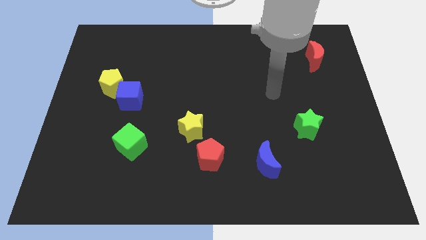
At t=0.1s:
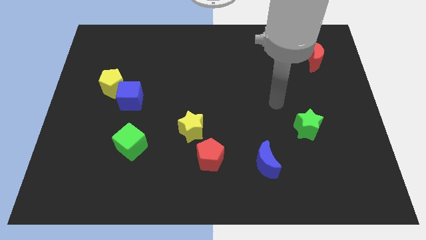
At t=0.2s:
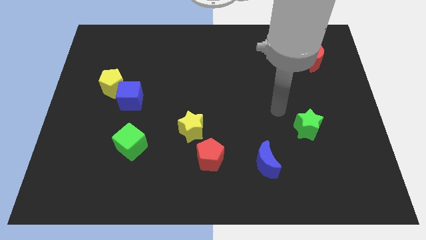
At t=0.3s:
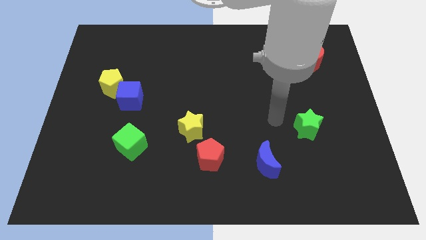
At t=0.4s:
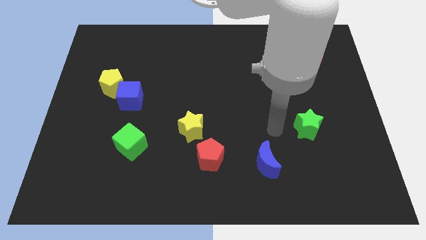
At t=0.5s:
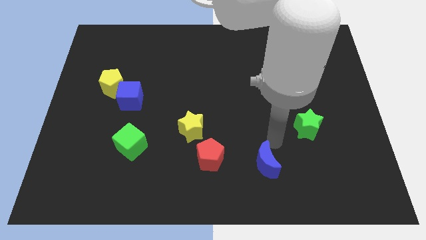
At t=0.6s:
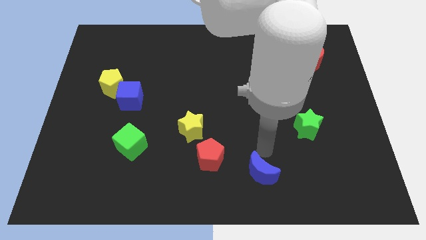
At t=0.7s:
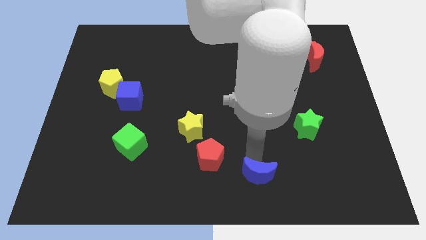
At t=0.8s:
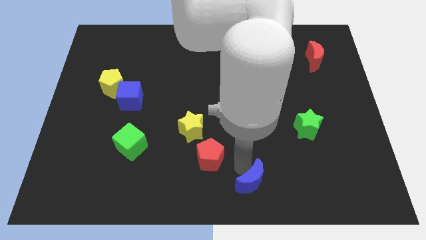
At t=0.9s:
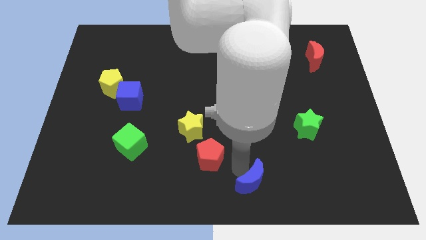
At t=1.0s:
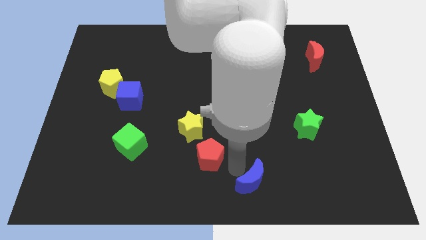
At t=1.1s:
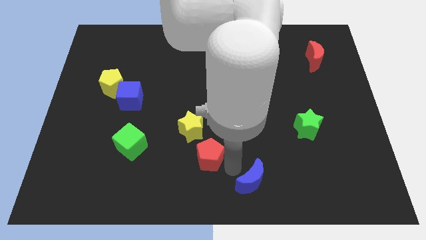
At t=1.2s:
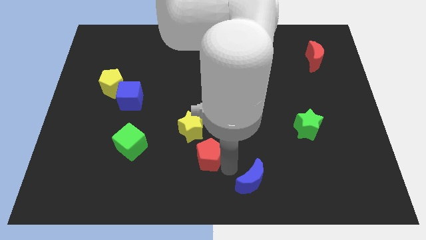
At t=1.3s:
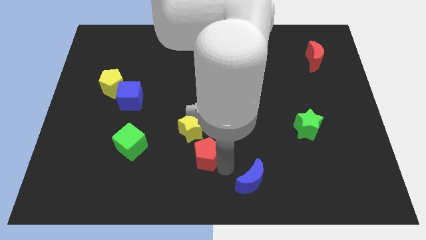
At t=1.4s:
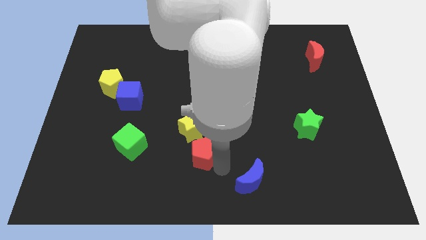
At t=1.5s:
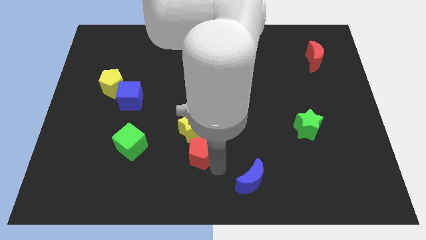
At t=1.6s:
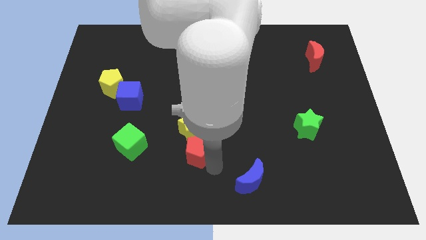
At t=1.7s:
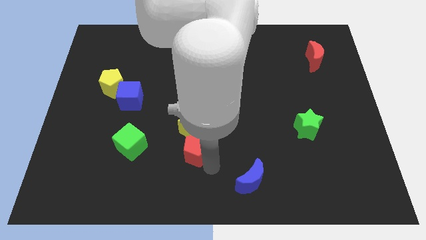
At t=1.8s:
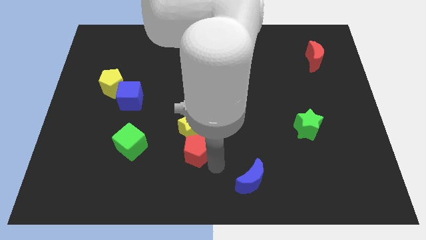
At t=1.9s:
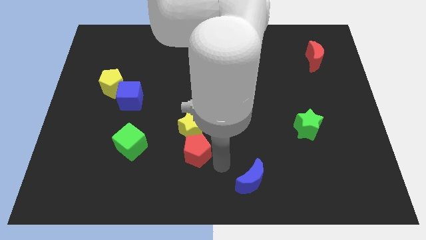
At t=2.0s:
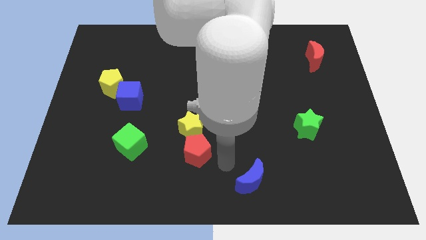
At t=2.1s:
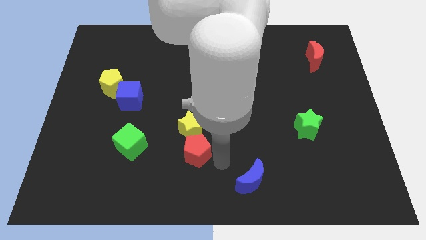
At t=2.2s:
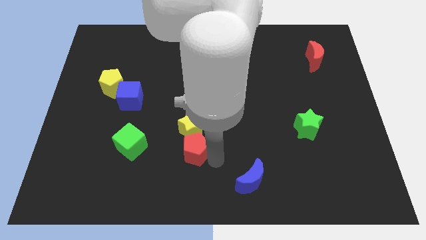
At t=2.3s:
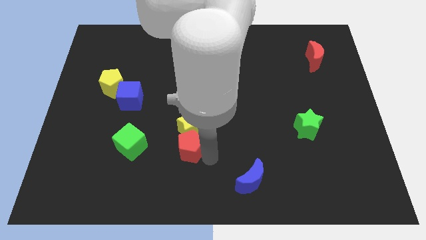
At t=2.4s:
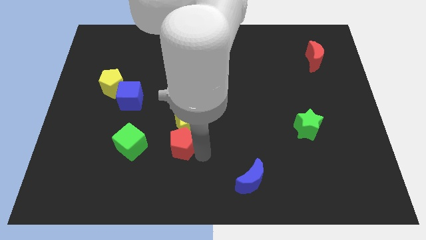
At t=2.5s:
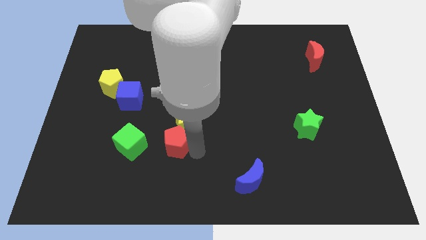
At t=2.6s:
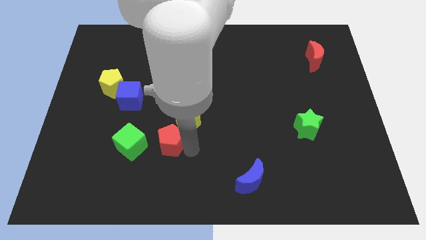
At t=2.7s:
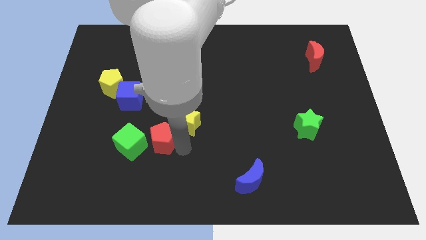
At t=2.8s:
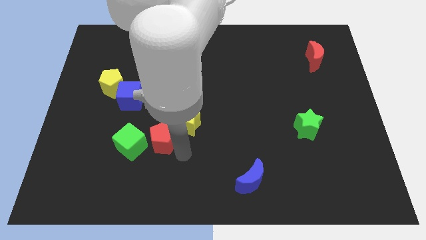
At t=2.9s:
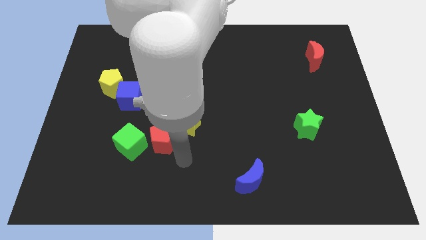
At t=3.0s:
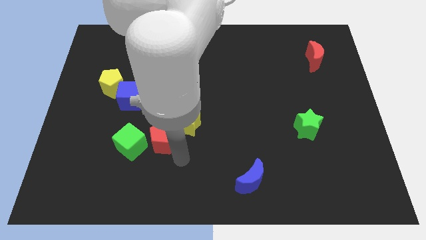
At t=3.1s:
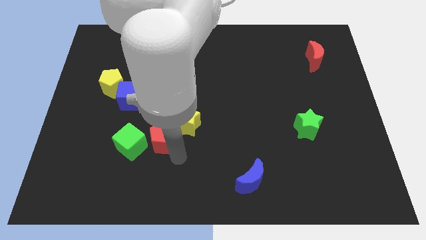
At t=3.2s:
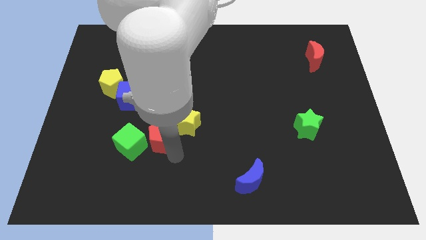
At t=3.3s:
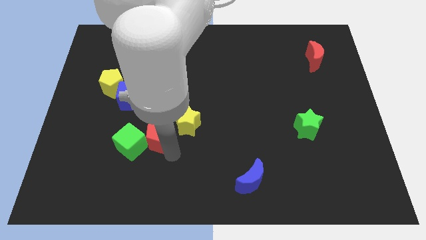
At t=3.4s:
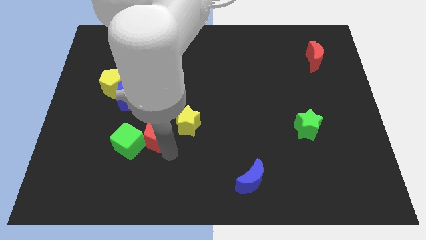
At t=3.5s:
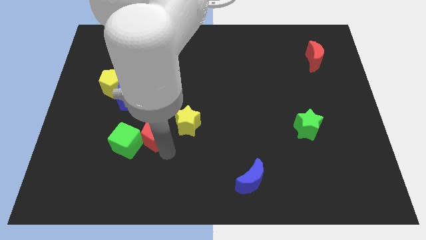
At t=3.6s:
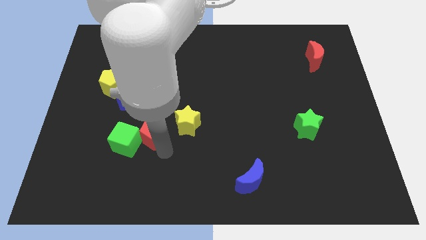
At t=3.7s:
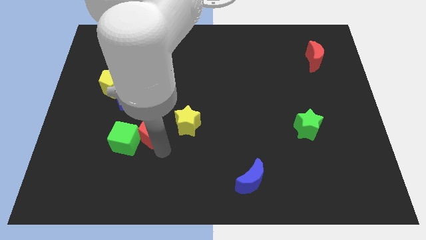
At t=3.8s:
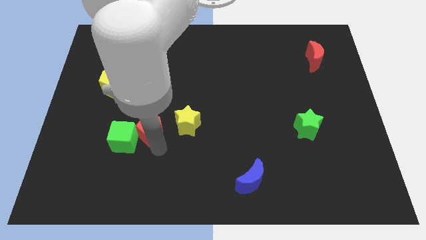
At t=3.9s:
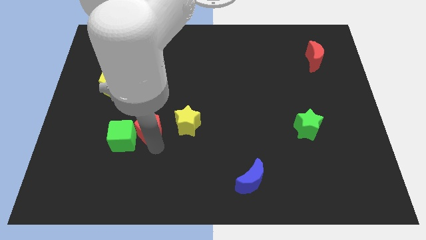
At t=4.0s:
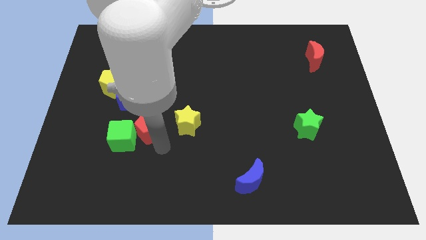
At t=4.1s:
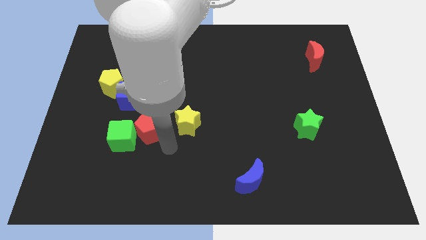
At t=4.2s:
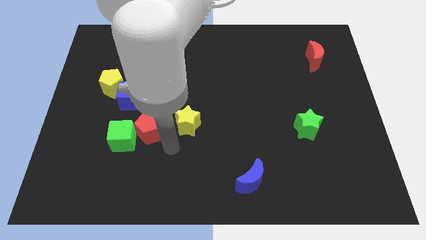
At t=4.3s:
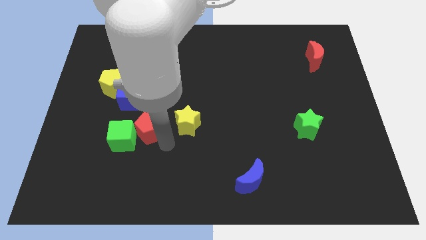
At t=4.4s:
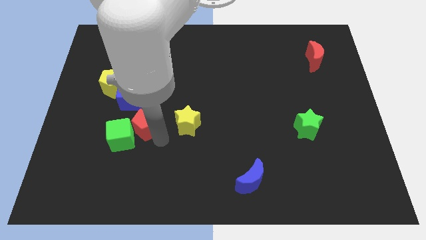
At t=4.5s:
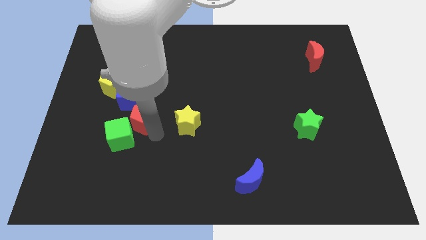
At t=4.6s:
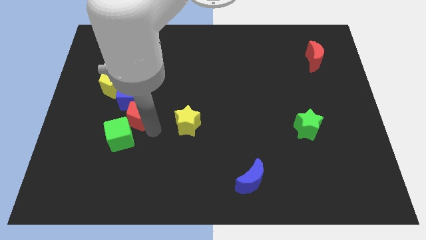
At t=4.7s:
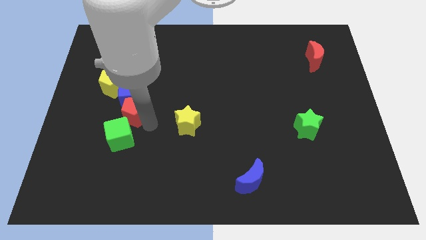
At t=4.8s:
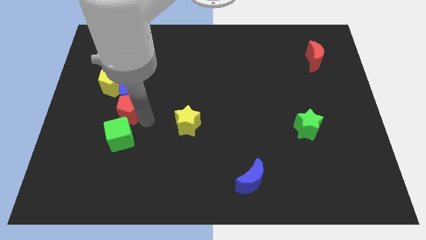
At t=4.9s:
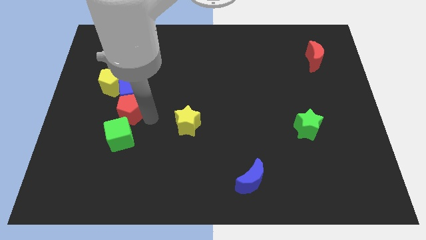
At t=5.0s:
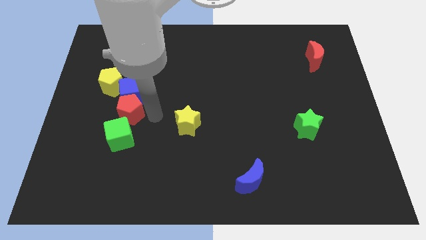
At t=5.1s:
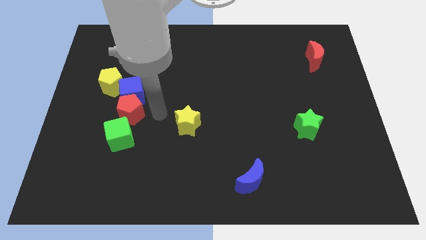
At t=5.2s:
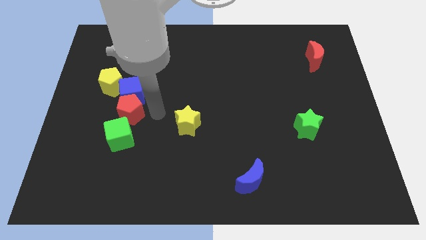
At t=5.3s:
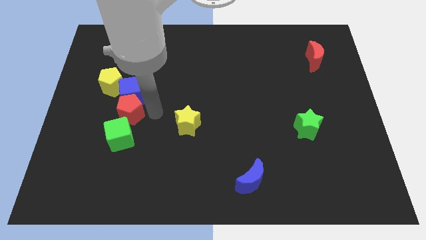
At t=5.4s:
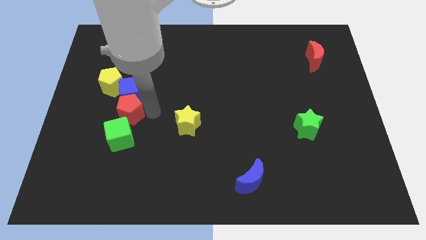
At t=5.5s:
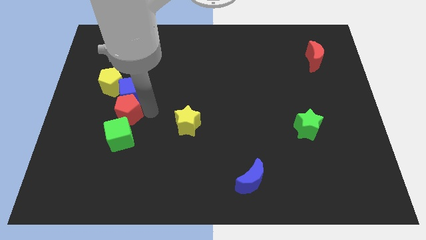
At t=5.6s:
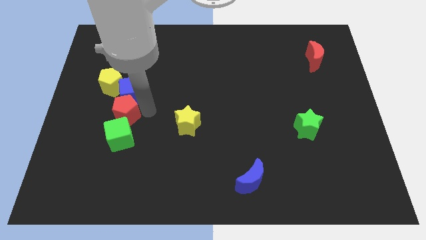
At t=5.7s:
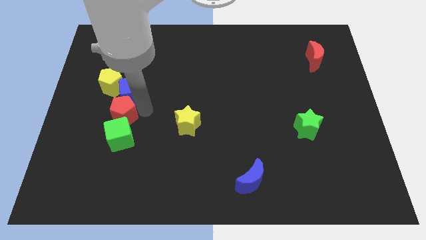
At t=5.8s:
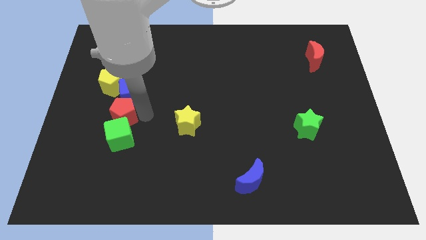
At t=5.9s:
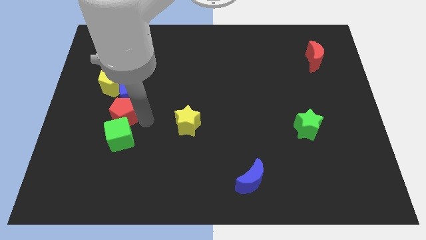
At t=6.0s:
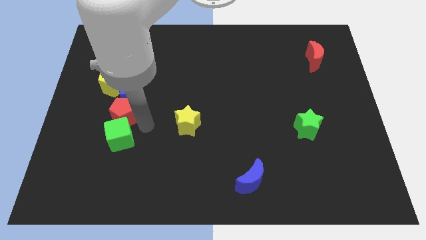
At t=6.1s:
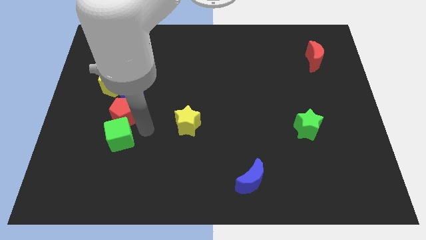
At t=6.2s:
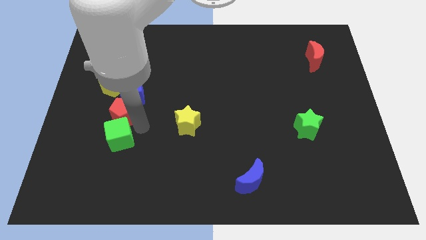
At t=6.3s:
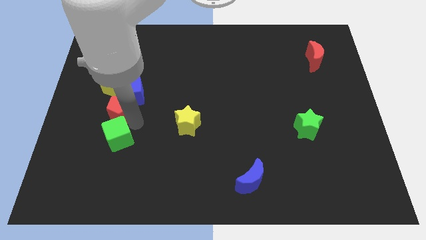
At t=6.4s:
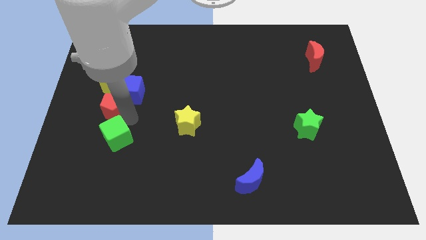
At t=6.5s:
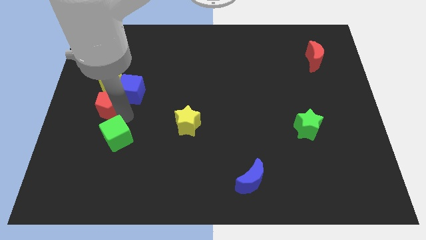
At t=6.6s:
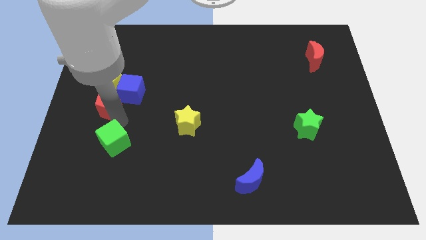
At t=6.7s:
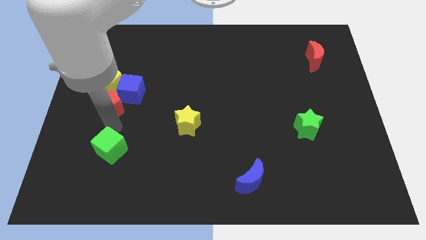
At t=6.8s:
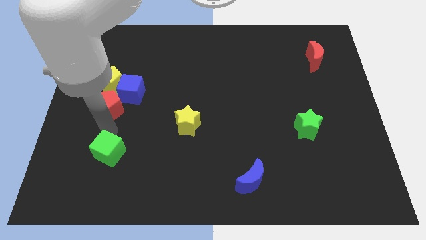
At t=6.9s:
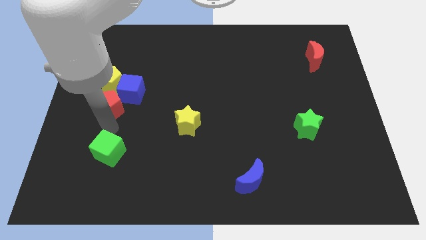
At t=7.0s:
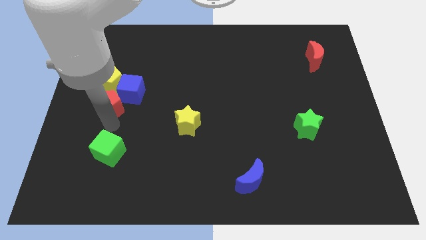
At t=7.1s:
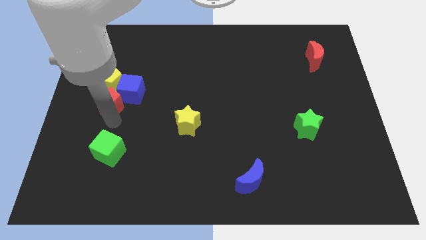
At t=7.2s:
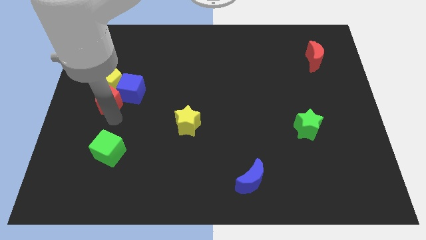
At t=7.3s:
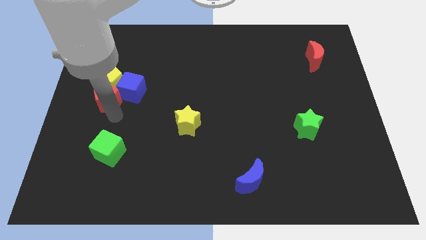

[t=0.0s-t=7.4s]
move the red pentagon to the yellow pentagon
